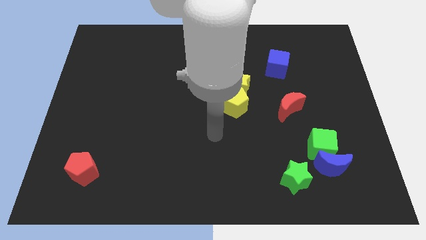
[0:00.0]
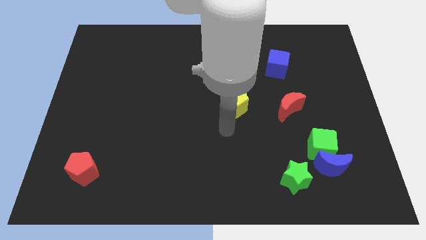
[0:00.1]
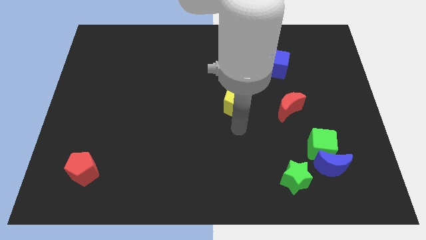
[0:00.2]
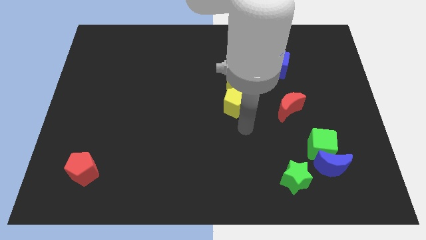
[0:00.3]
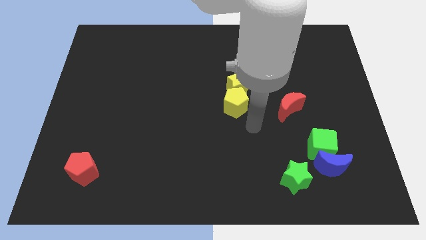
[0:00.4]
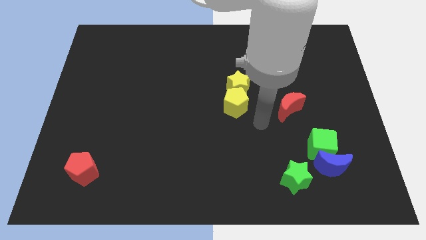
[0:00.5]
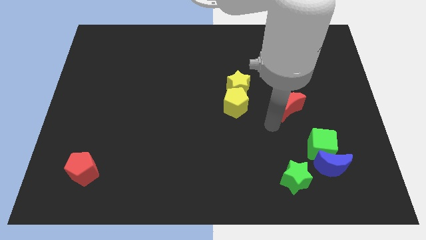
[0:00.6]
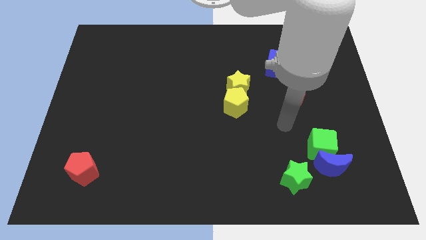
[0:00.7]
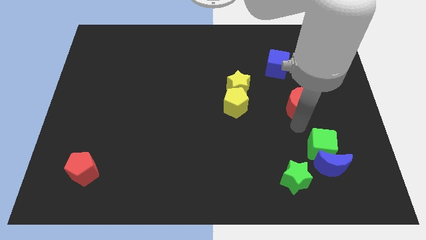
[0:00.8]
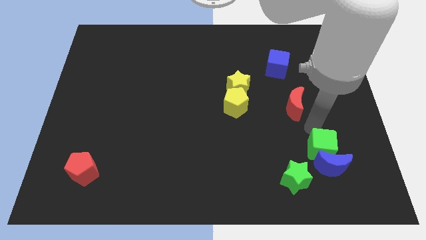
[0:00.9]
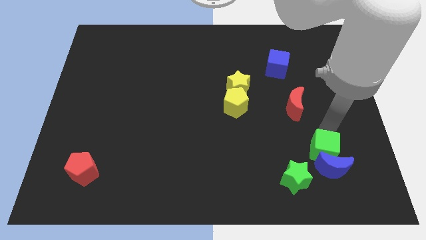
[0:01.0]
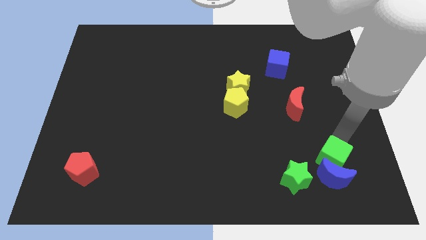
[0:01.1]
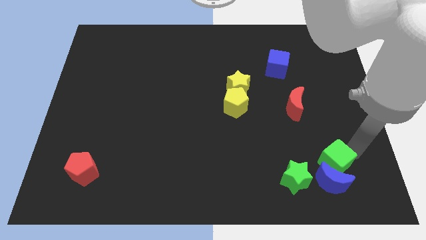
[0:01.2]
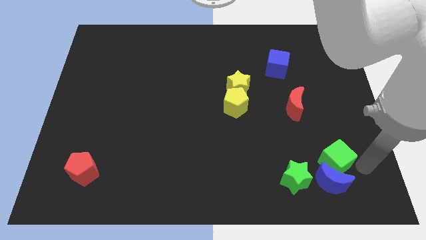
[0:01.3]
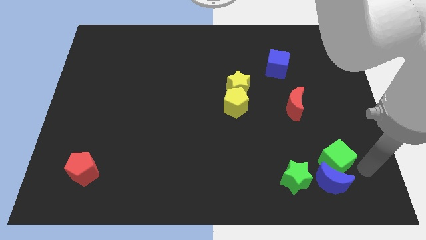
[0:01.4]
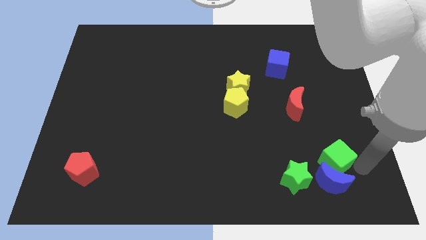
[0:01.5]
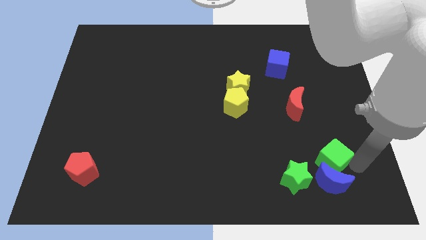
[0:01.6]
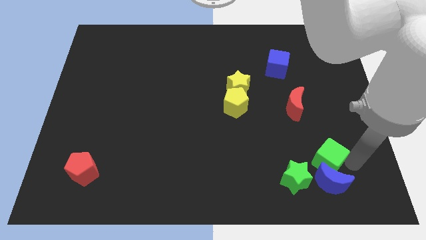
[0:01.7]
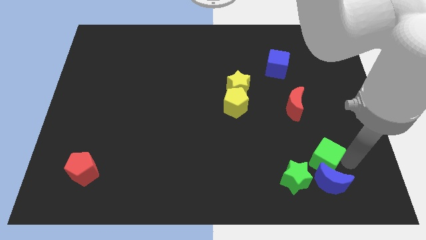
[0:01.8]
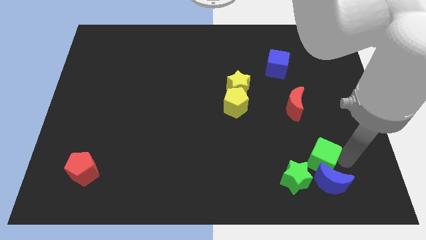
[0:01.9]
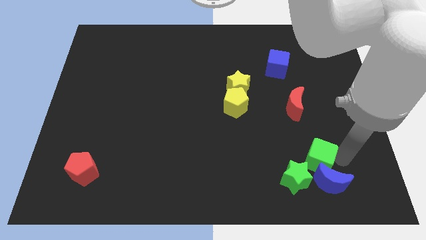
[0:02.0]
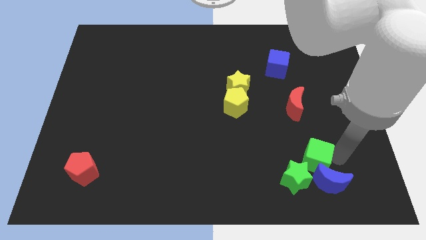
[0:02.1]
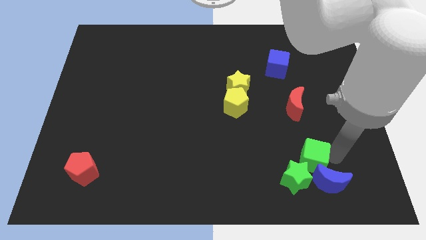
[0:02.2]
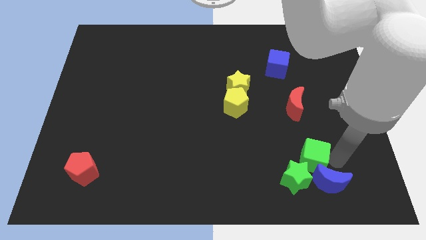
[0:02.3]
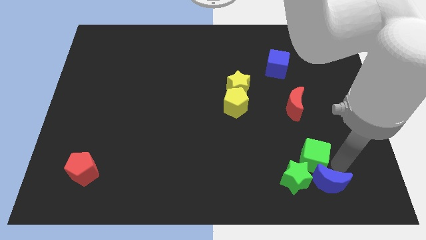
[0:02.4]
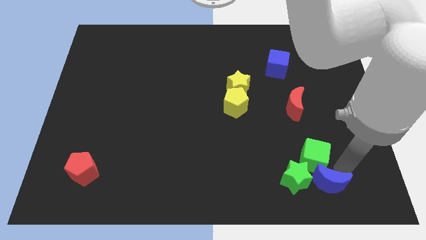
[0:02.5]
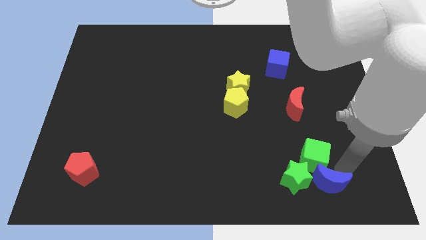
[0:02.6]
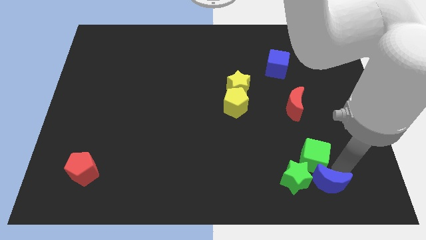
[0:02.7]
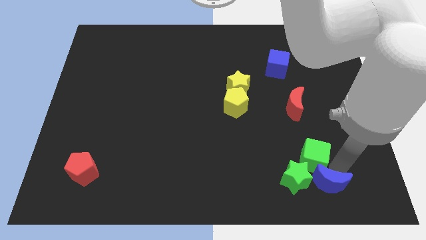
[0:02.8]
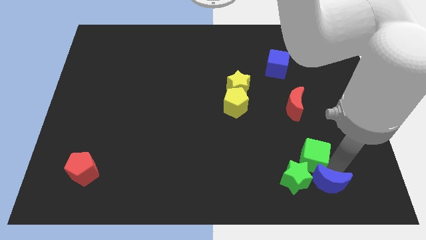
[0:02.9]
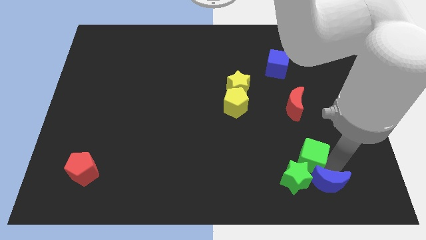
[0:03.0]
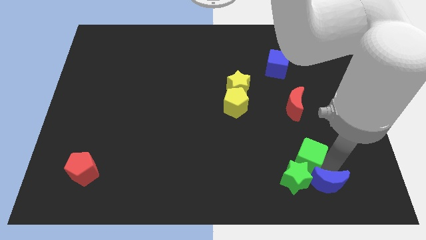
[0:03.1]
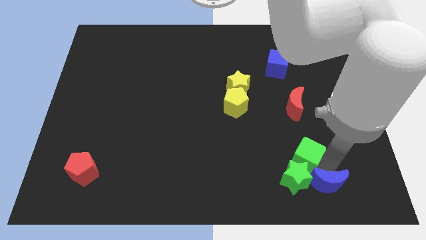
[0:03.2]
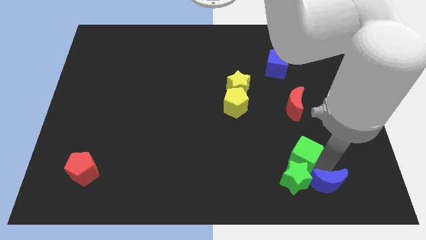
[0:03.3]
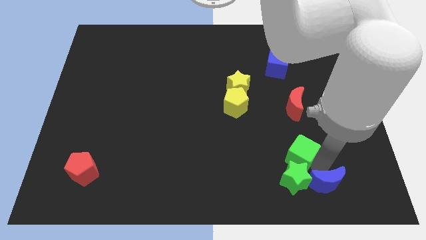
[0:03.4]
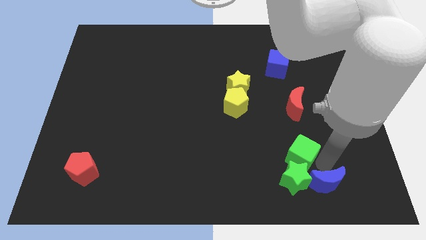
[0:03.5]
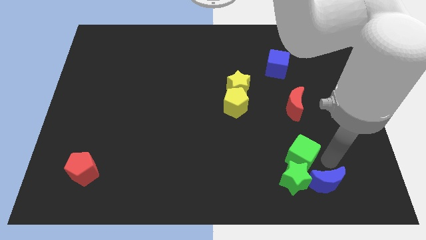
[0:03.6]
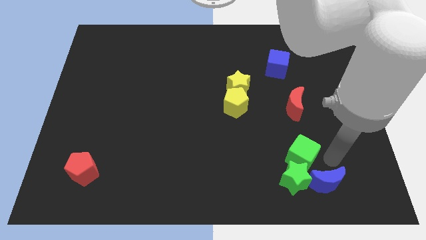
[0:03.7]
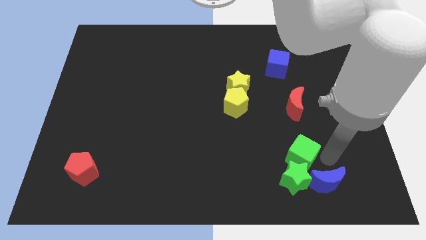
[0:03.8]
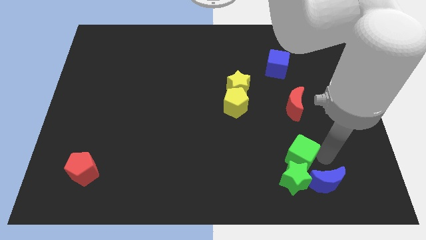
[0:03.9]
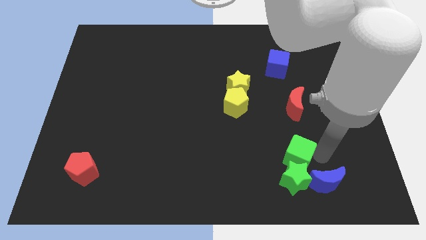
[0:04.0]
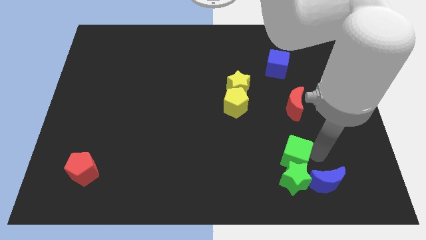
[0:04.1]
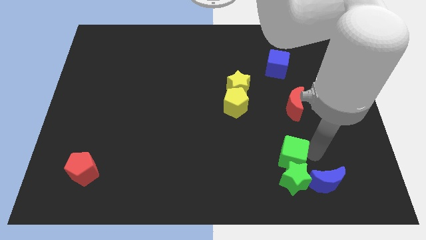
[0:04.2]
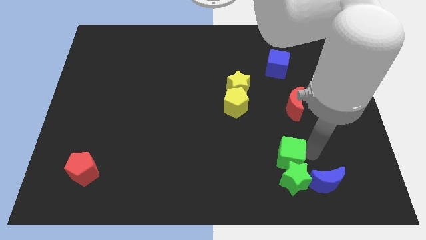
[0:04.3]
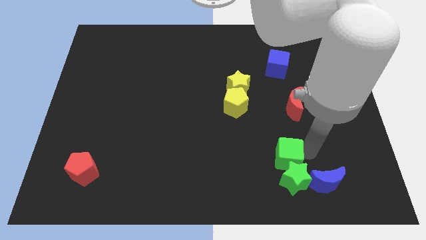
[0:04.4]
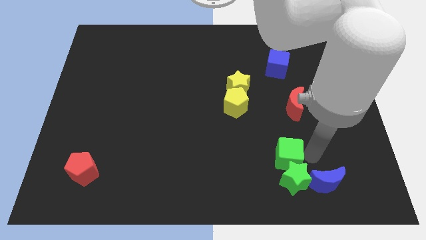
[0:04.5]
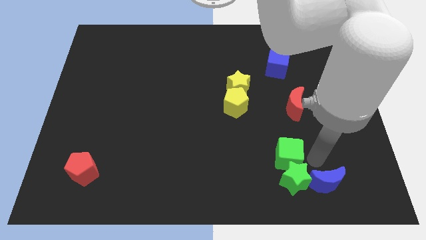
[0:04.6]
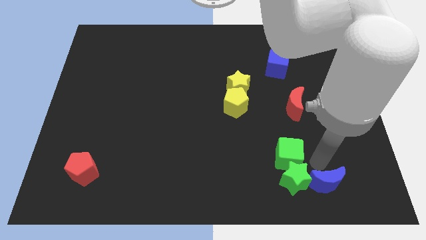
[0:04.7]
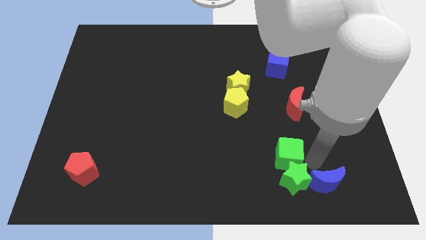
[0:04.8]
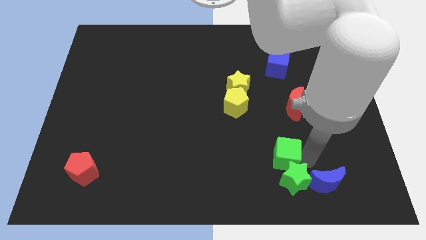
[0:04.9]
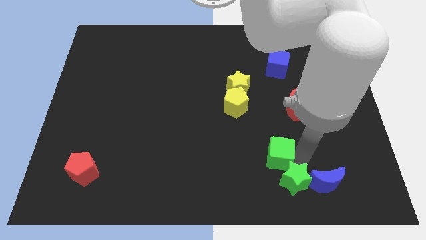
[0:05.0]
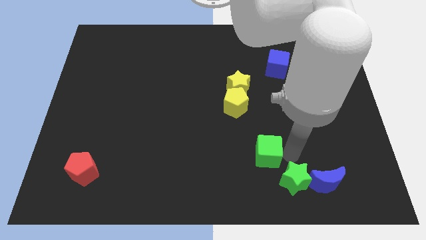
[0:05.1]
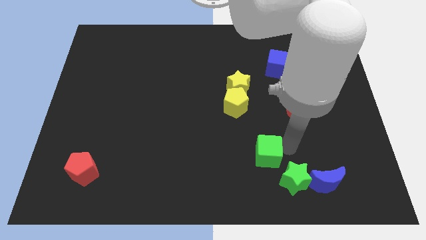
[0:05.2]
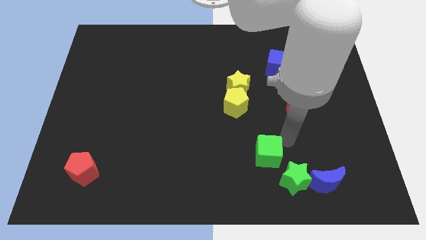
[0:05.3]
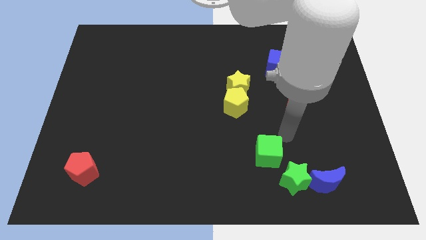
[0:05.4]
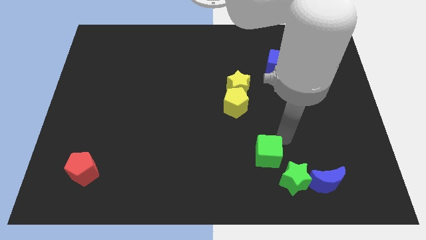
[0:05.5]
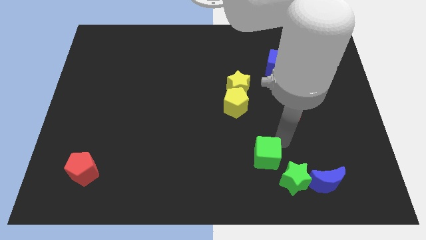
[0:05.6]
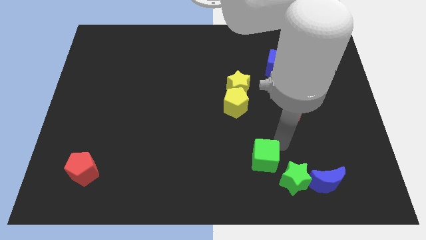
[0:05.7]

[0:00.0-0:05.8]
push the green cube to the left side of the green star
